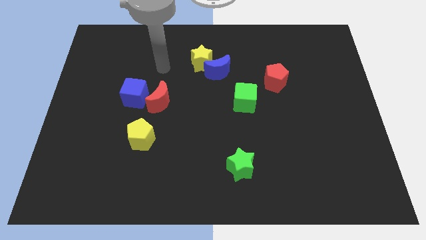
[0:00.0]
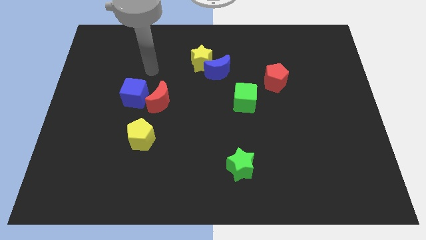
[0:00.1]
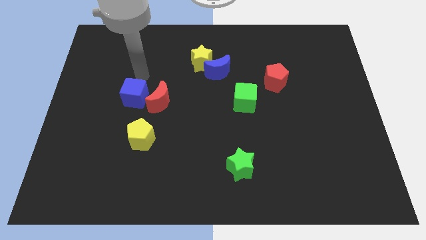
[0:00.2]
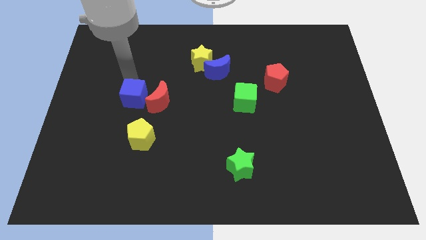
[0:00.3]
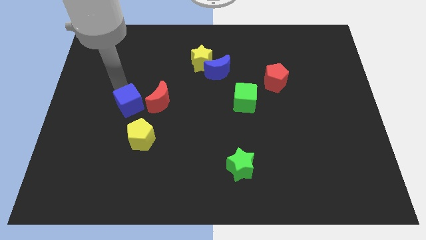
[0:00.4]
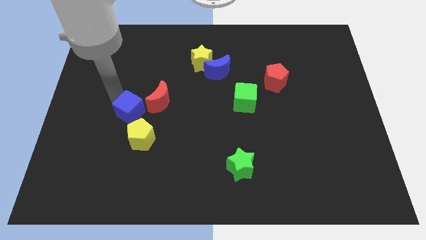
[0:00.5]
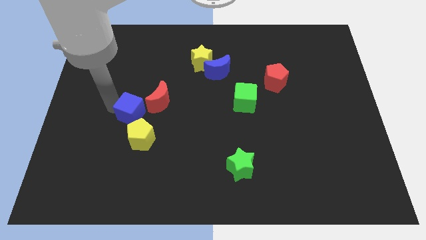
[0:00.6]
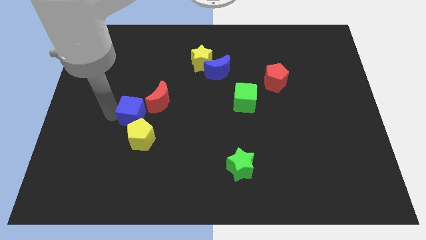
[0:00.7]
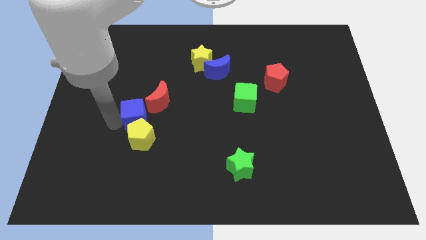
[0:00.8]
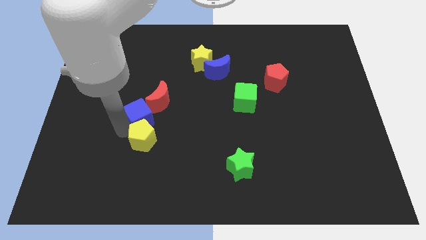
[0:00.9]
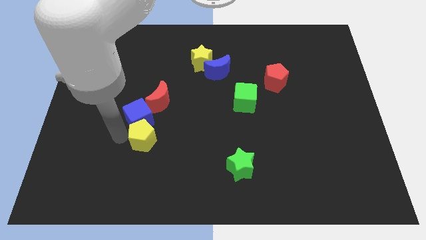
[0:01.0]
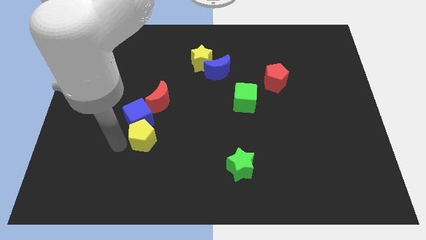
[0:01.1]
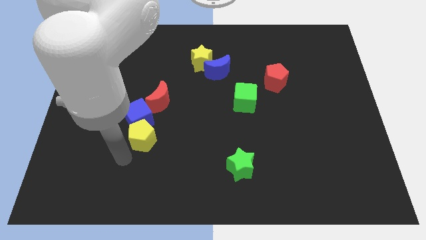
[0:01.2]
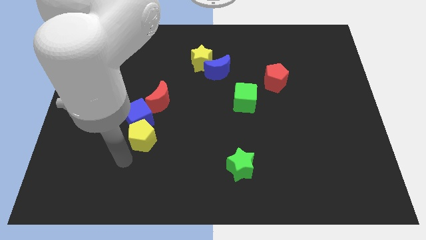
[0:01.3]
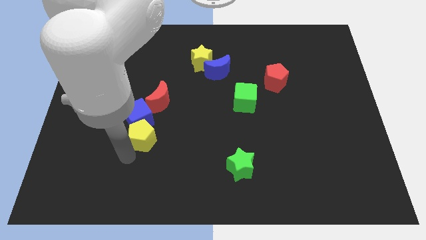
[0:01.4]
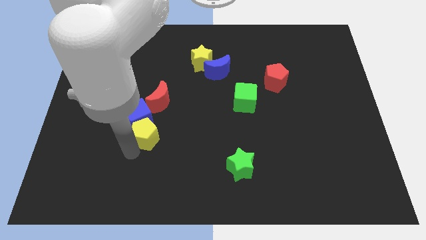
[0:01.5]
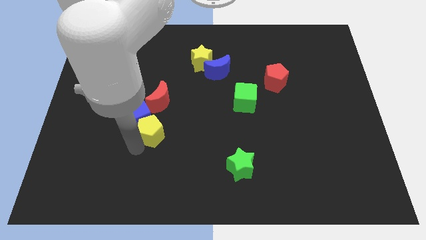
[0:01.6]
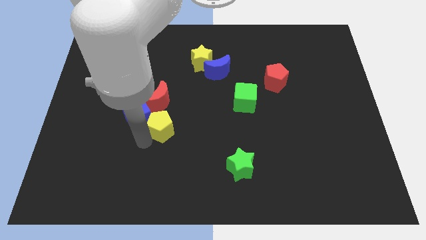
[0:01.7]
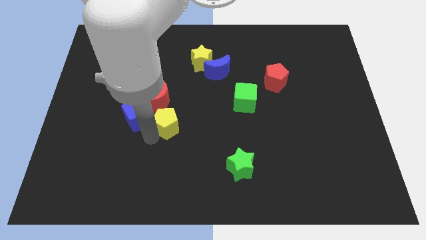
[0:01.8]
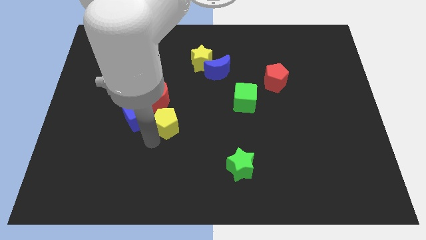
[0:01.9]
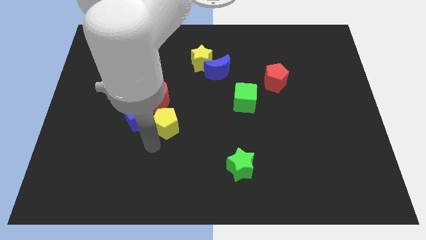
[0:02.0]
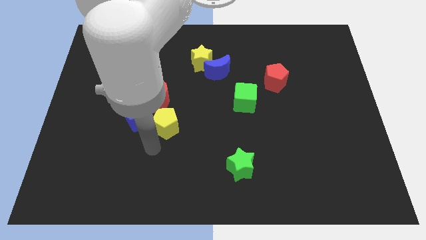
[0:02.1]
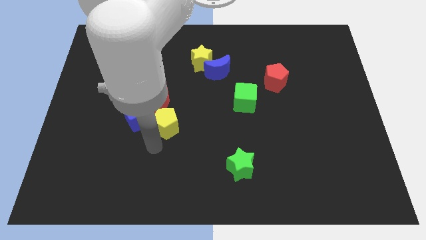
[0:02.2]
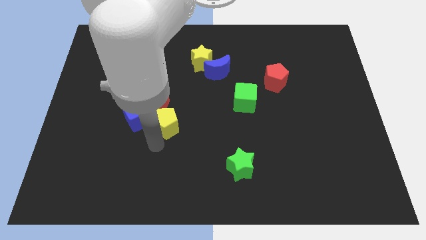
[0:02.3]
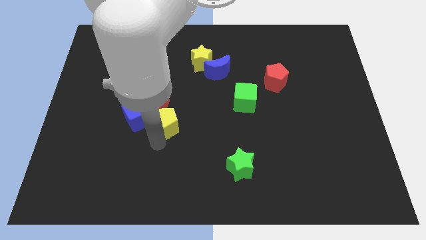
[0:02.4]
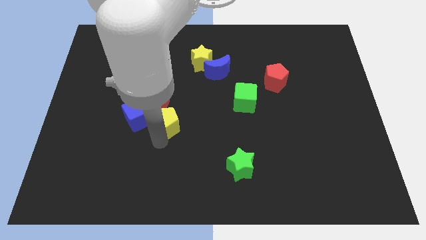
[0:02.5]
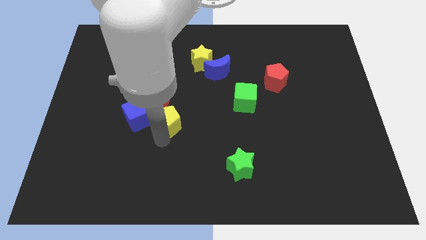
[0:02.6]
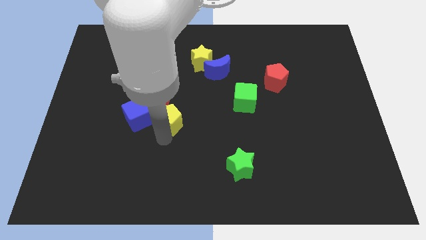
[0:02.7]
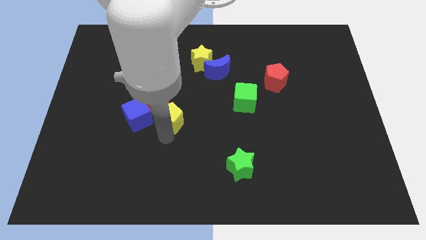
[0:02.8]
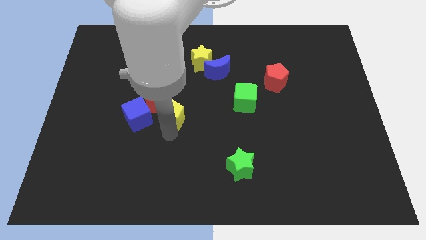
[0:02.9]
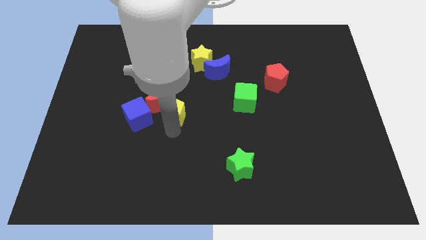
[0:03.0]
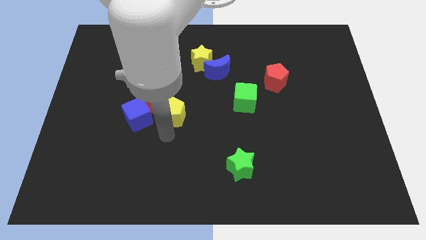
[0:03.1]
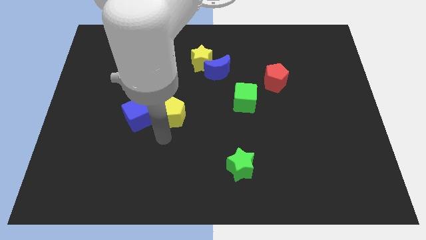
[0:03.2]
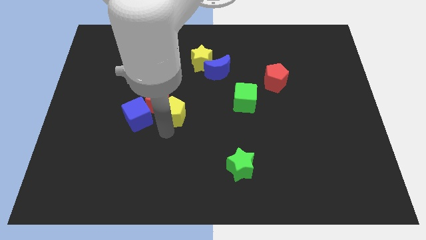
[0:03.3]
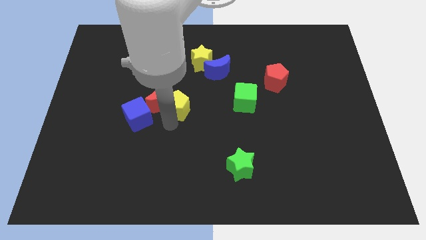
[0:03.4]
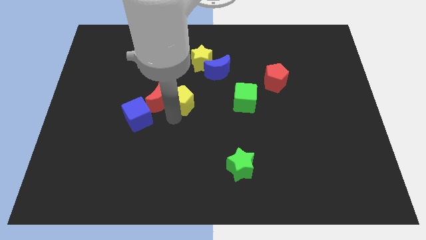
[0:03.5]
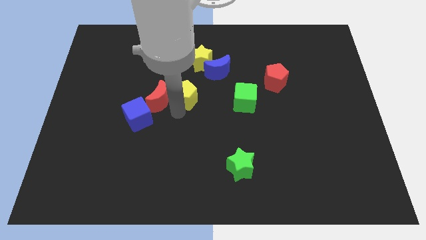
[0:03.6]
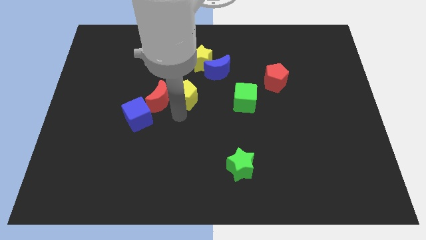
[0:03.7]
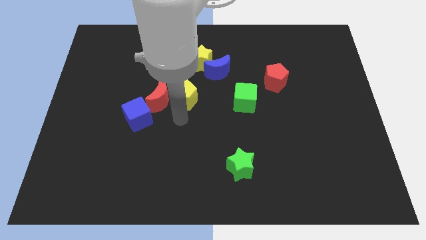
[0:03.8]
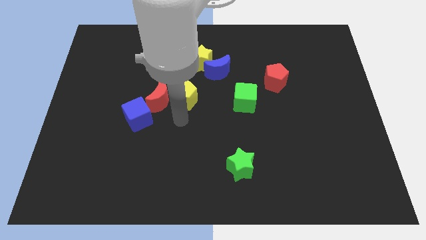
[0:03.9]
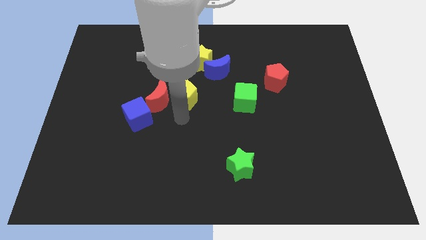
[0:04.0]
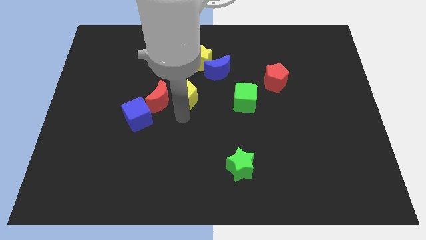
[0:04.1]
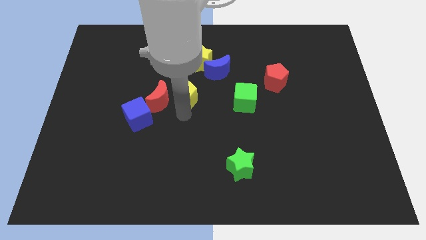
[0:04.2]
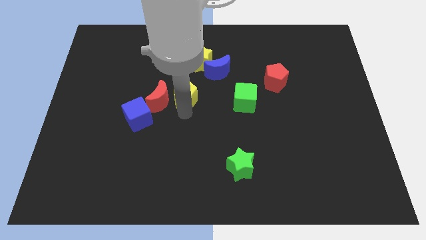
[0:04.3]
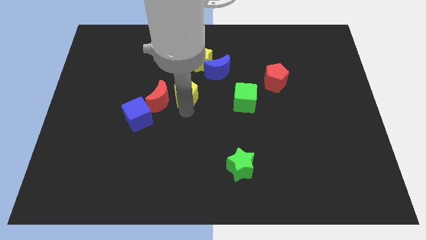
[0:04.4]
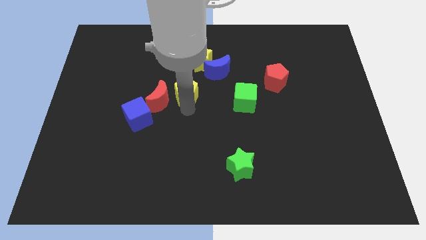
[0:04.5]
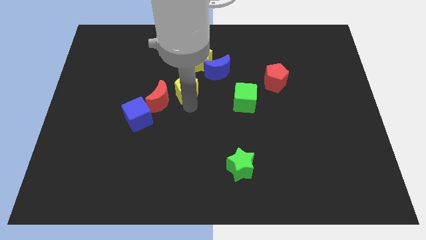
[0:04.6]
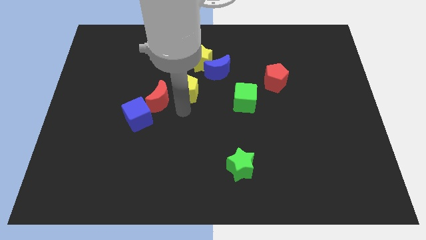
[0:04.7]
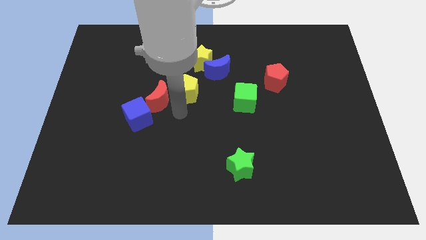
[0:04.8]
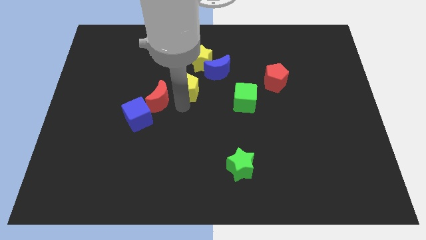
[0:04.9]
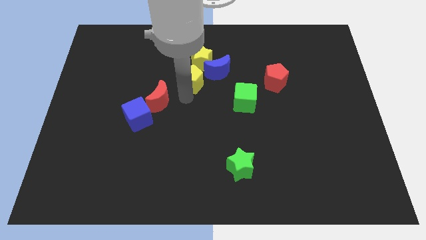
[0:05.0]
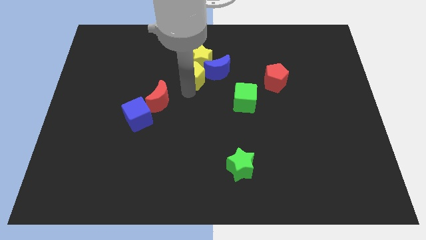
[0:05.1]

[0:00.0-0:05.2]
slide the yellow pentagon towards the yellow star

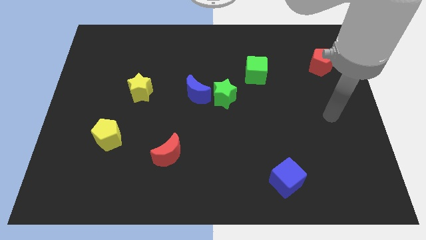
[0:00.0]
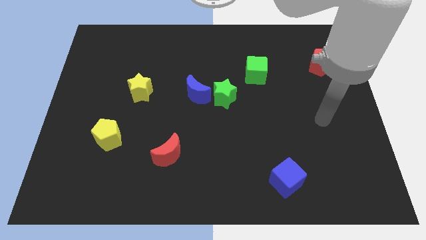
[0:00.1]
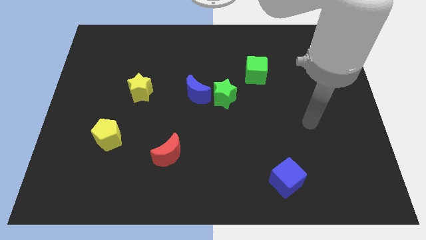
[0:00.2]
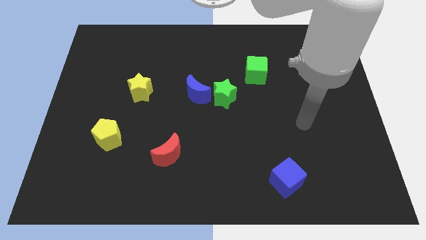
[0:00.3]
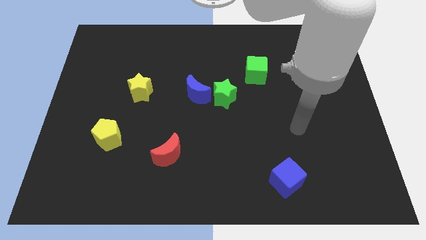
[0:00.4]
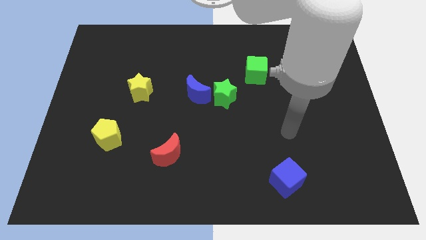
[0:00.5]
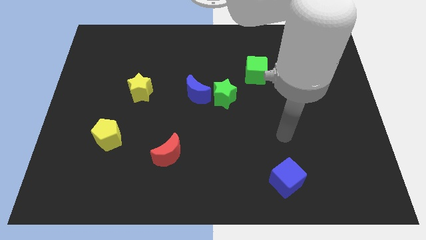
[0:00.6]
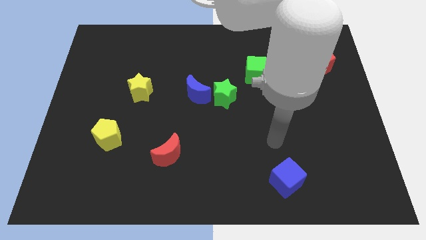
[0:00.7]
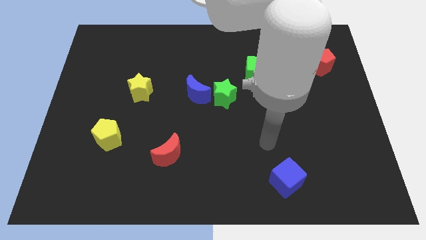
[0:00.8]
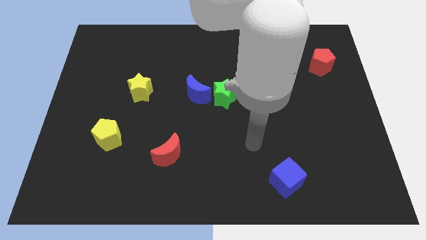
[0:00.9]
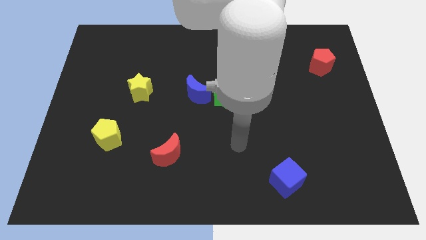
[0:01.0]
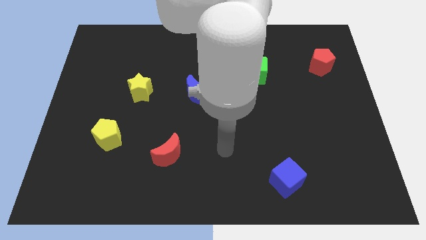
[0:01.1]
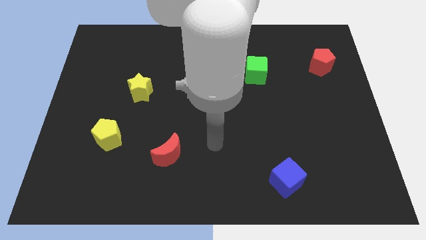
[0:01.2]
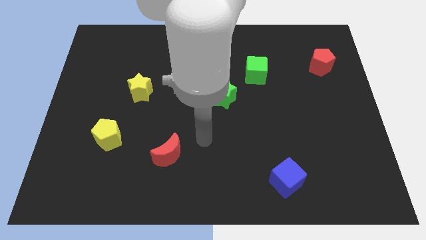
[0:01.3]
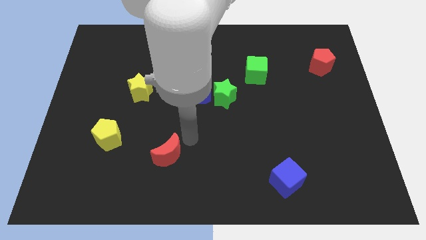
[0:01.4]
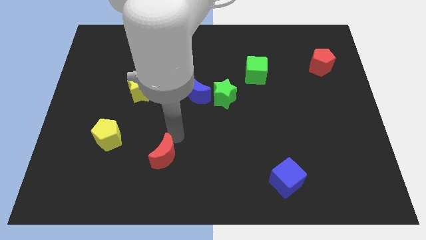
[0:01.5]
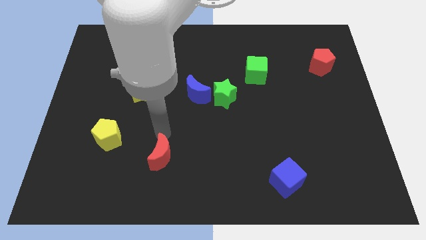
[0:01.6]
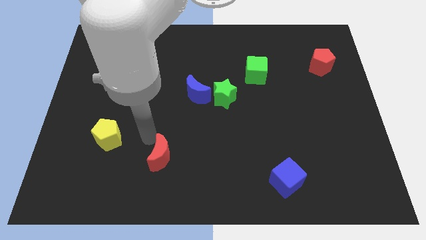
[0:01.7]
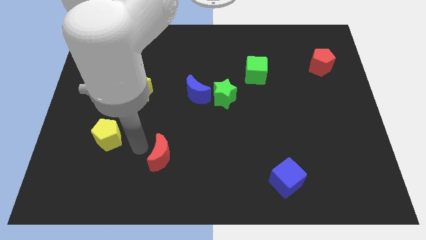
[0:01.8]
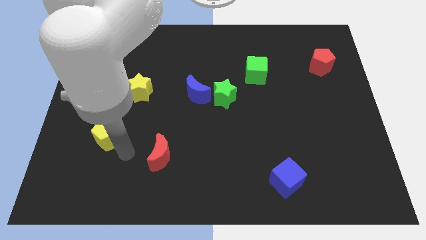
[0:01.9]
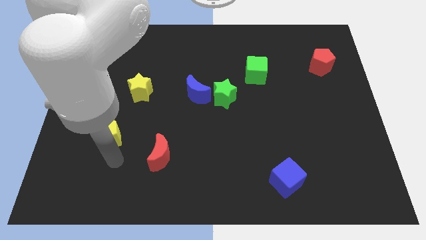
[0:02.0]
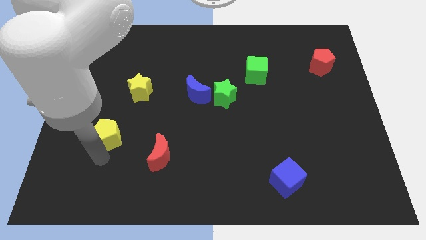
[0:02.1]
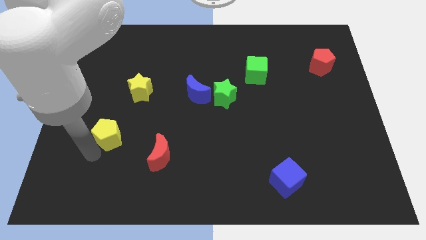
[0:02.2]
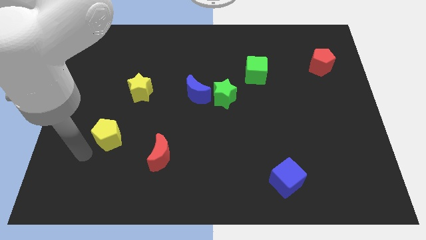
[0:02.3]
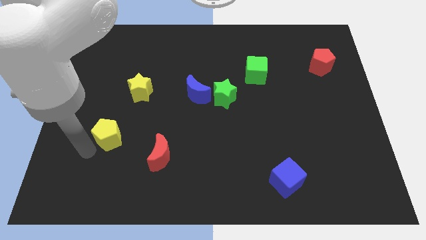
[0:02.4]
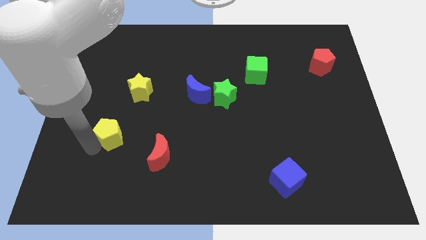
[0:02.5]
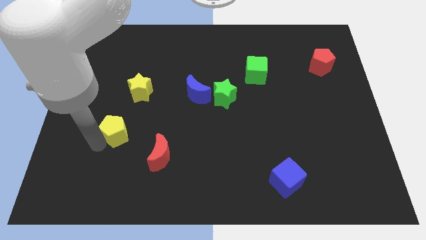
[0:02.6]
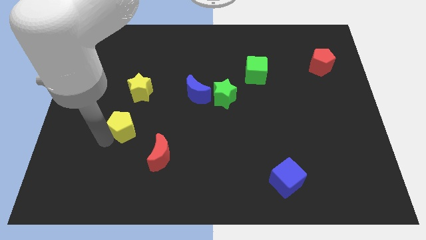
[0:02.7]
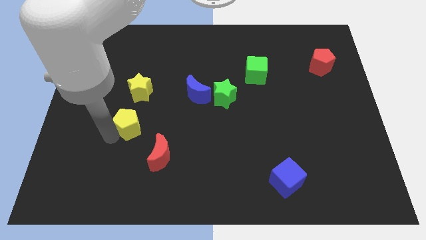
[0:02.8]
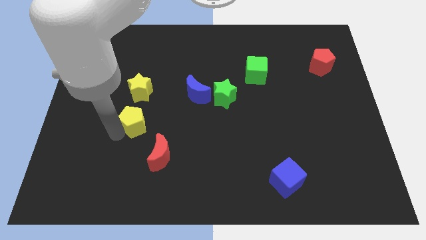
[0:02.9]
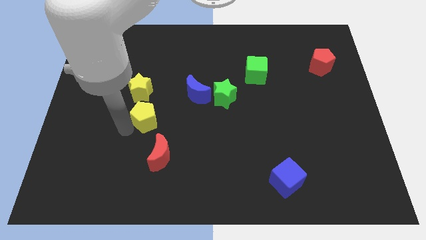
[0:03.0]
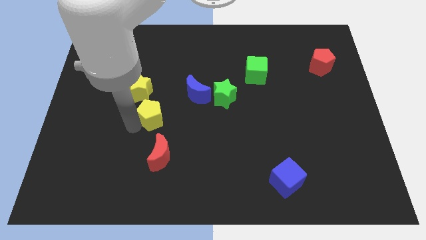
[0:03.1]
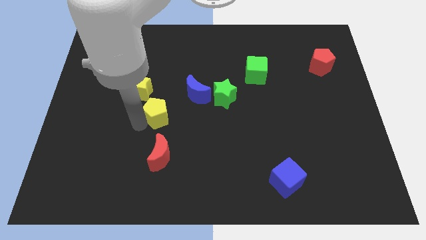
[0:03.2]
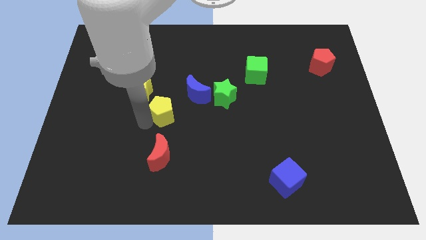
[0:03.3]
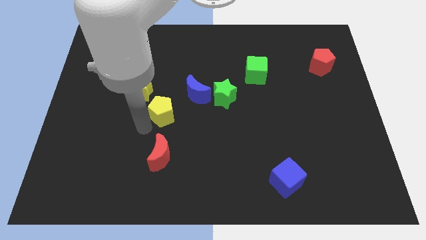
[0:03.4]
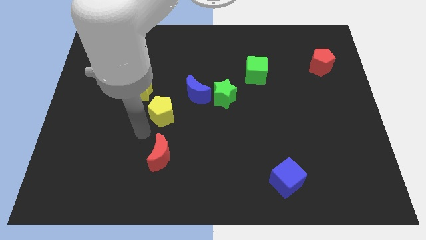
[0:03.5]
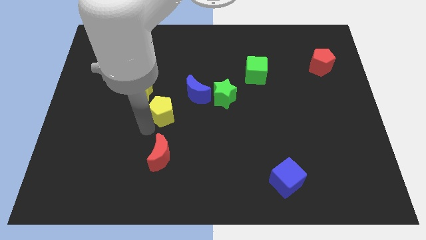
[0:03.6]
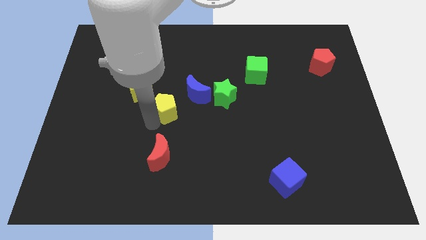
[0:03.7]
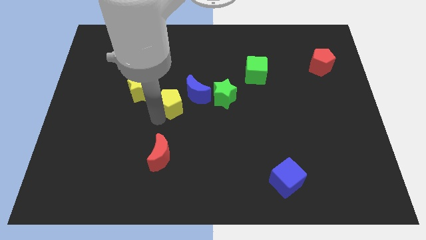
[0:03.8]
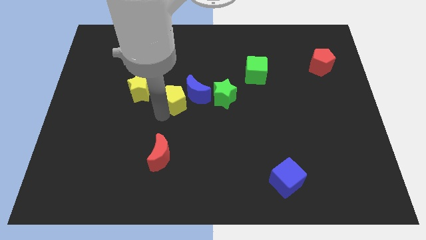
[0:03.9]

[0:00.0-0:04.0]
push the yellow pentagon next to the blue moon
